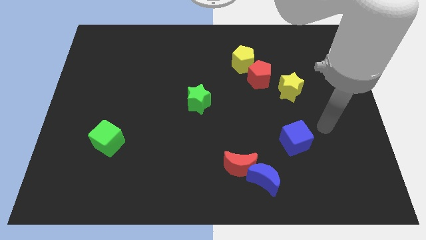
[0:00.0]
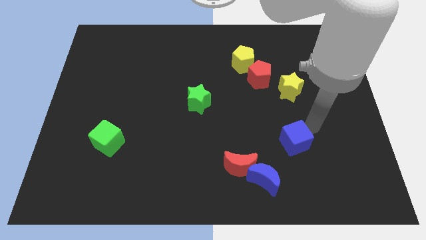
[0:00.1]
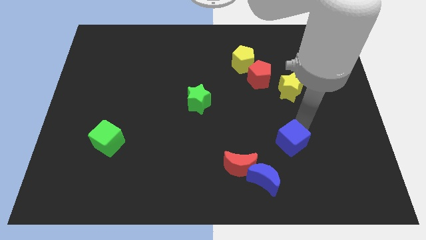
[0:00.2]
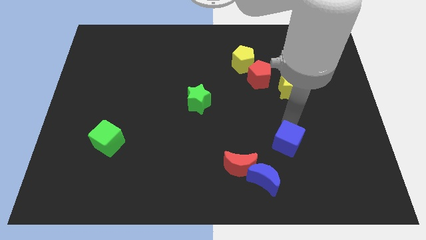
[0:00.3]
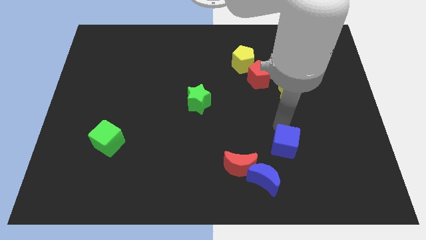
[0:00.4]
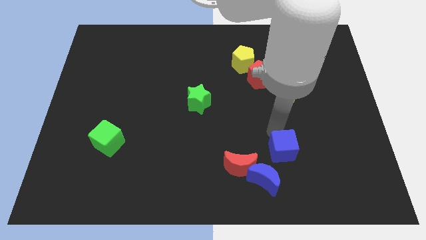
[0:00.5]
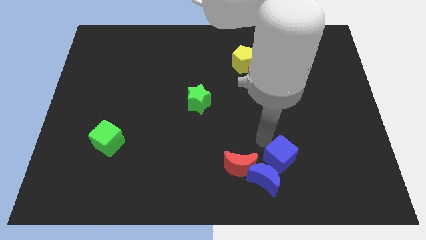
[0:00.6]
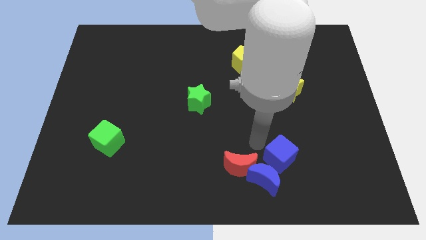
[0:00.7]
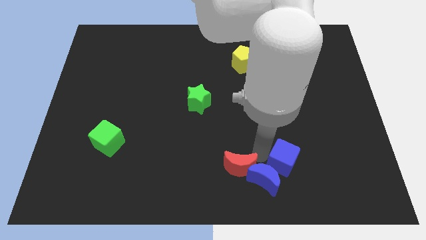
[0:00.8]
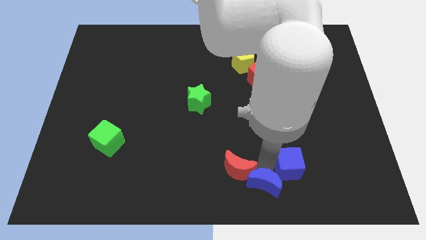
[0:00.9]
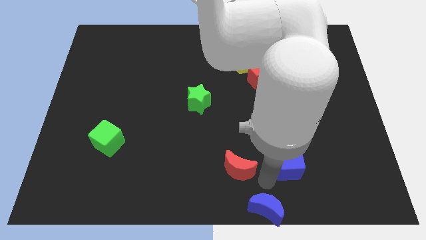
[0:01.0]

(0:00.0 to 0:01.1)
separate the red moon from the blue moon

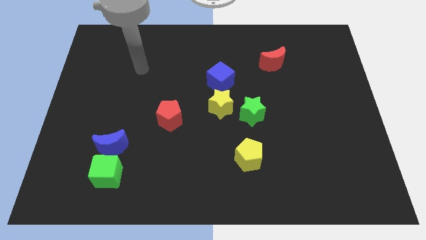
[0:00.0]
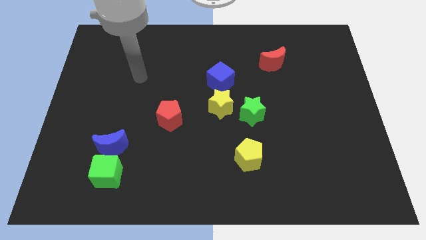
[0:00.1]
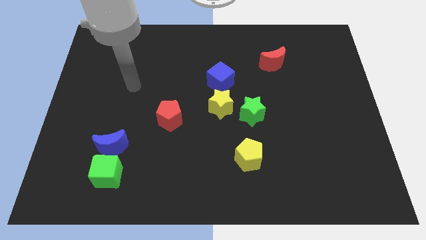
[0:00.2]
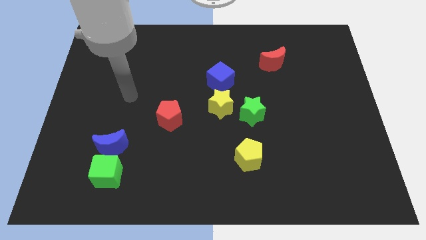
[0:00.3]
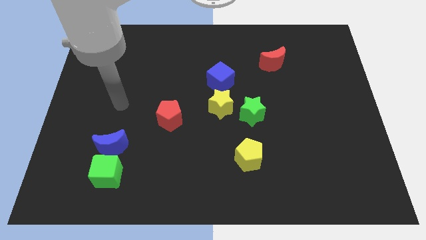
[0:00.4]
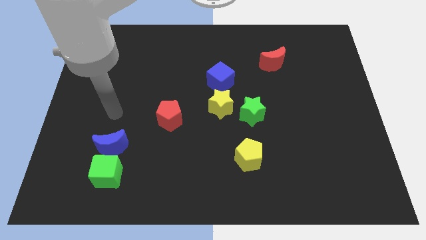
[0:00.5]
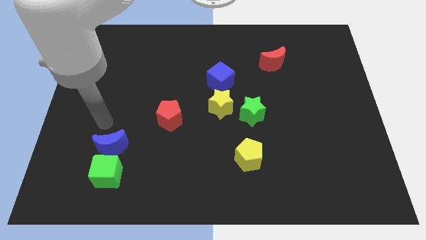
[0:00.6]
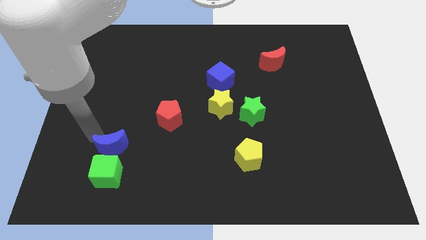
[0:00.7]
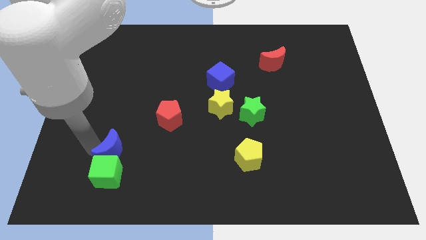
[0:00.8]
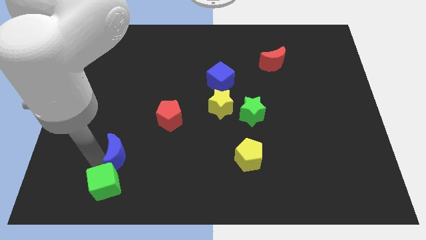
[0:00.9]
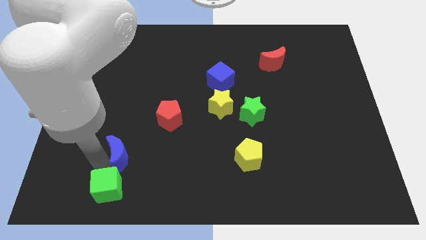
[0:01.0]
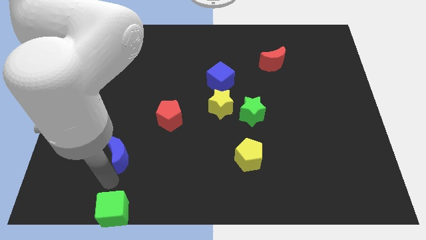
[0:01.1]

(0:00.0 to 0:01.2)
move the blue moon away from the green cube

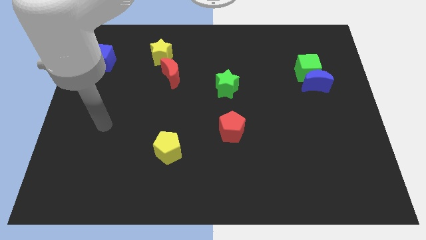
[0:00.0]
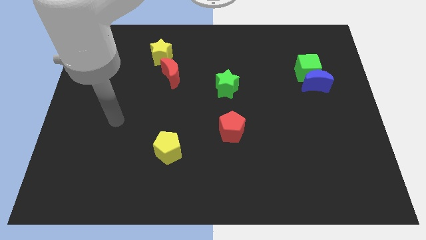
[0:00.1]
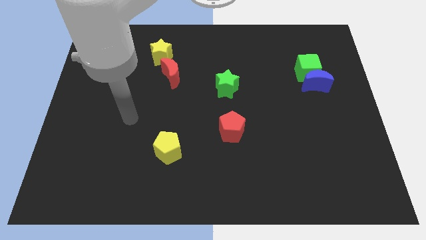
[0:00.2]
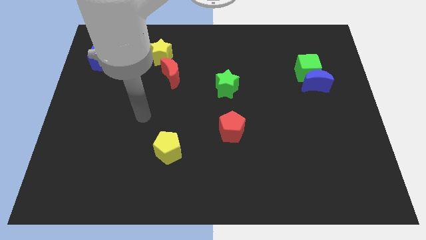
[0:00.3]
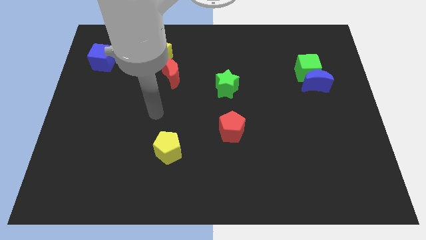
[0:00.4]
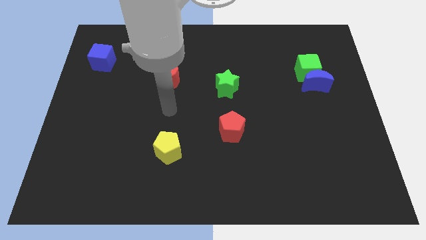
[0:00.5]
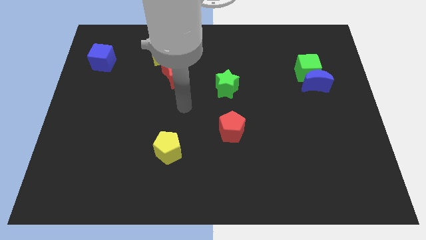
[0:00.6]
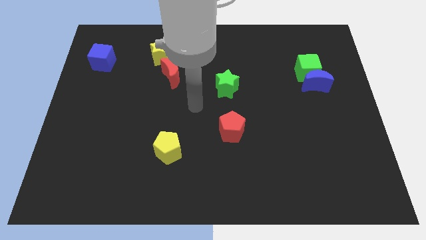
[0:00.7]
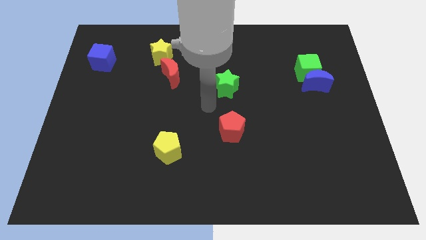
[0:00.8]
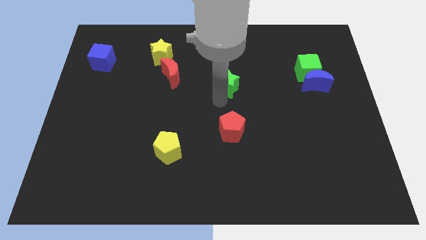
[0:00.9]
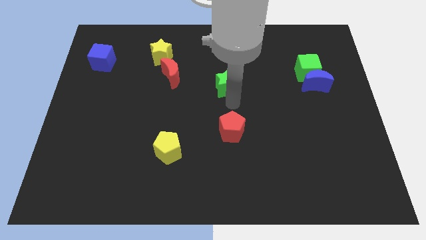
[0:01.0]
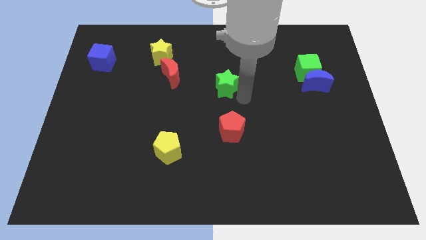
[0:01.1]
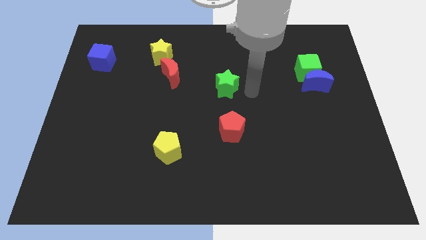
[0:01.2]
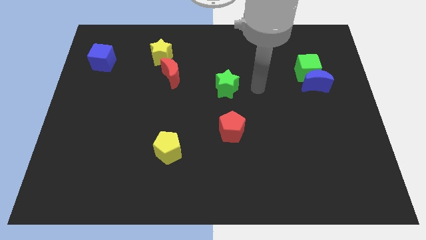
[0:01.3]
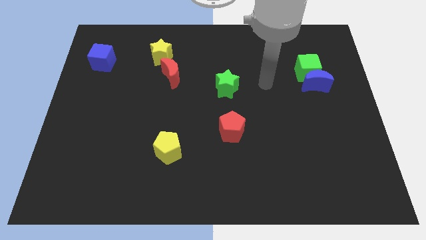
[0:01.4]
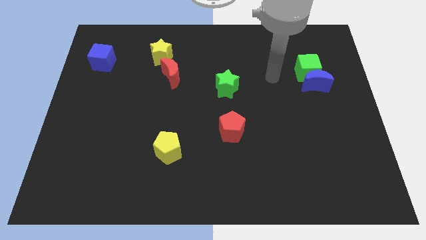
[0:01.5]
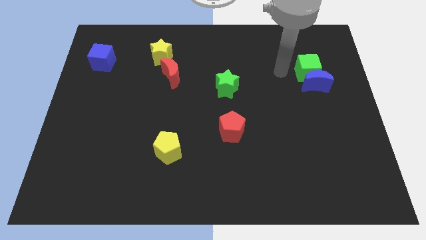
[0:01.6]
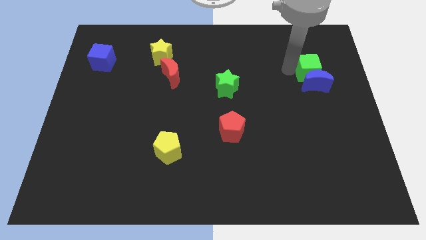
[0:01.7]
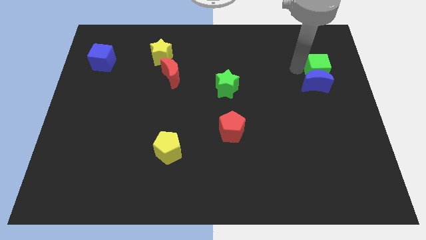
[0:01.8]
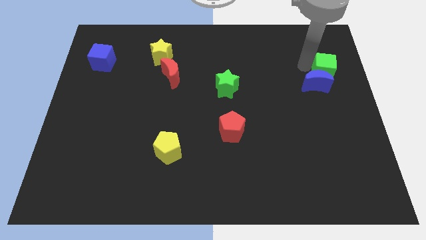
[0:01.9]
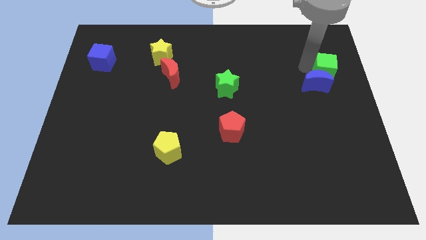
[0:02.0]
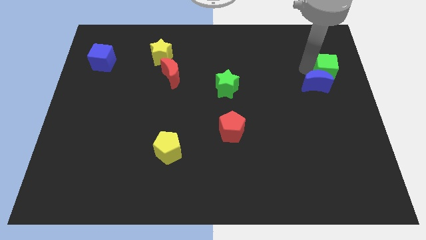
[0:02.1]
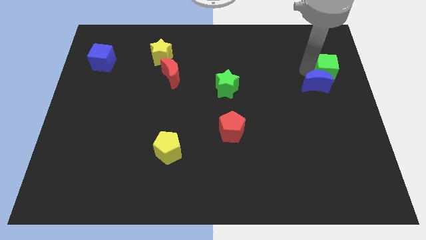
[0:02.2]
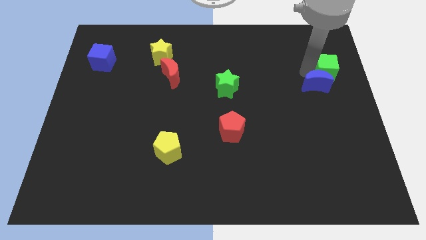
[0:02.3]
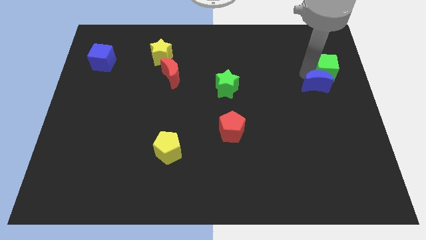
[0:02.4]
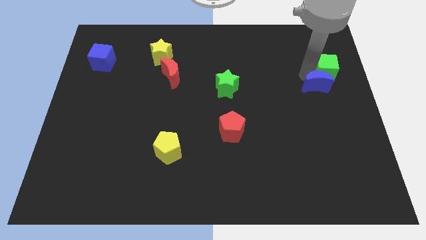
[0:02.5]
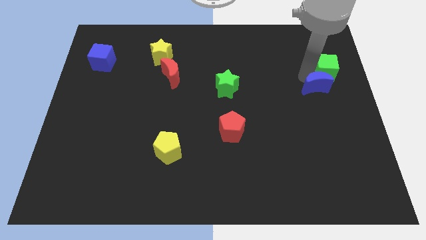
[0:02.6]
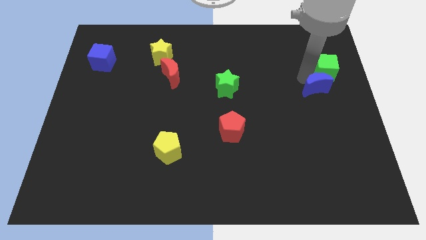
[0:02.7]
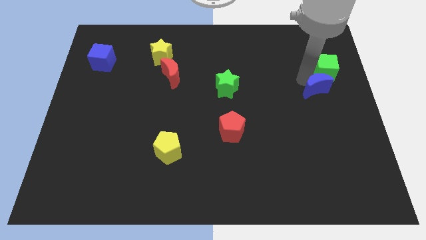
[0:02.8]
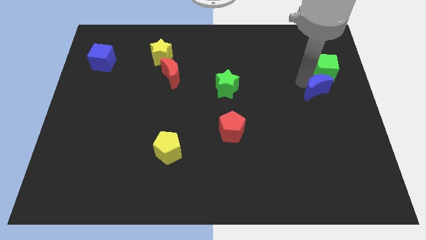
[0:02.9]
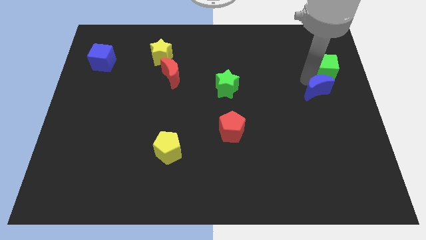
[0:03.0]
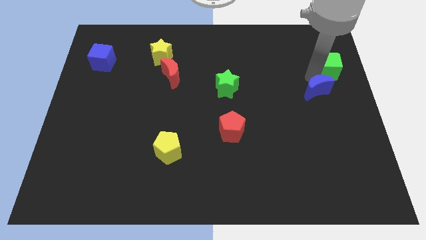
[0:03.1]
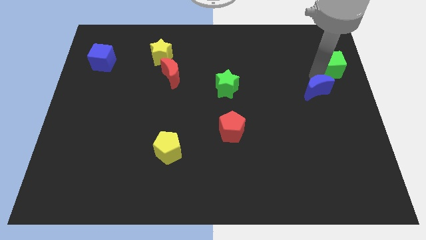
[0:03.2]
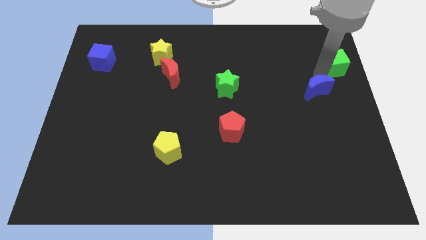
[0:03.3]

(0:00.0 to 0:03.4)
separate the blue moon from the green cube

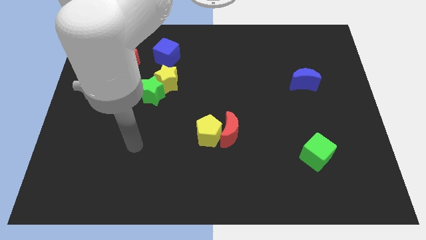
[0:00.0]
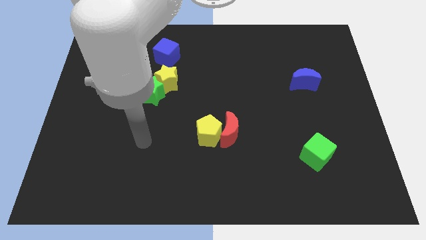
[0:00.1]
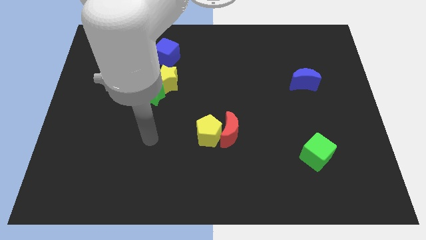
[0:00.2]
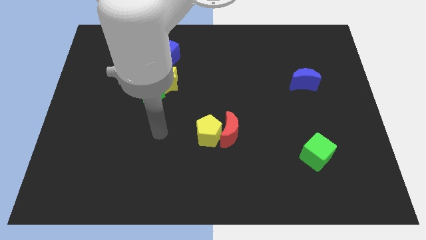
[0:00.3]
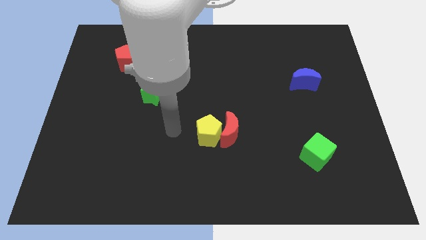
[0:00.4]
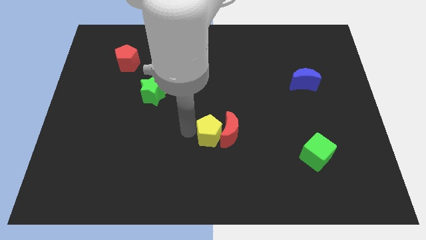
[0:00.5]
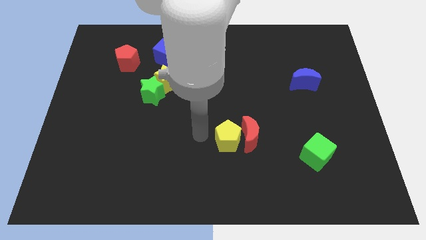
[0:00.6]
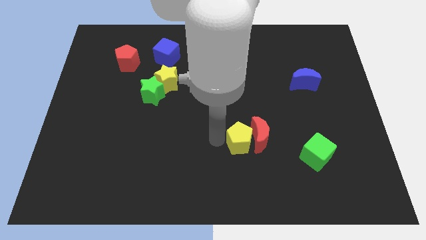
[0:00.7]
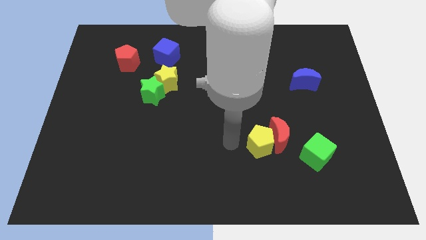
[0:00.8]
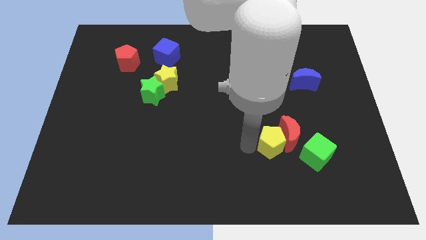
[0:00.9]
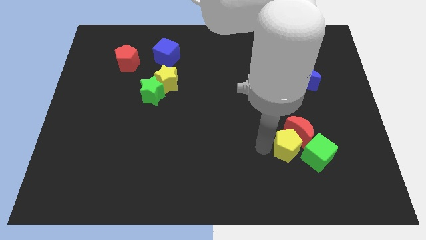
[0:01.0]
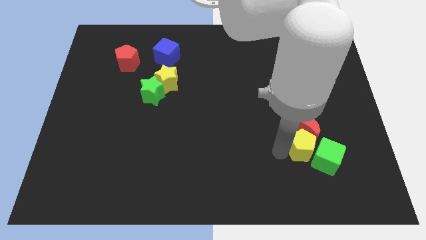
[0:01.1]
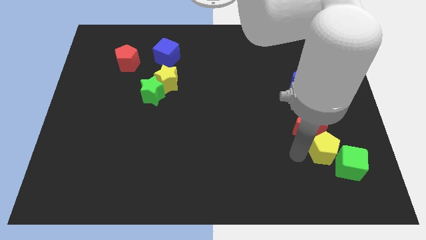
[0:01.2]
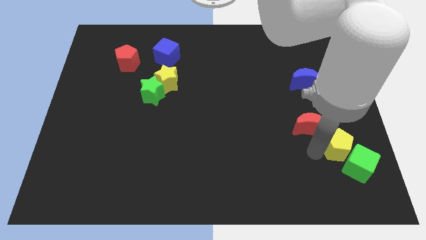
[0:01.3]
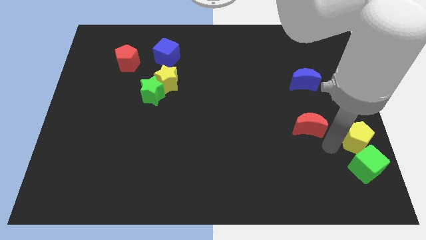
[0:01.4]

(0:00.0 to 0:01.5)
separate the red moon from the yellow pentagon

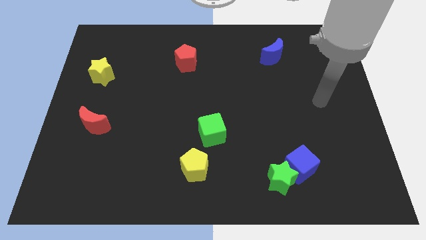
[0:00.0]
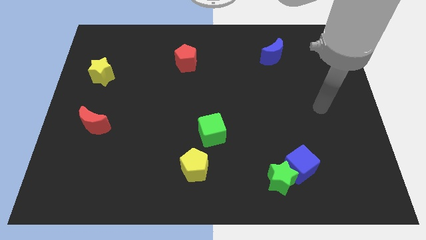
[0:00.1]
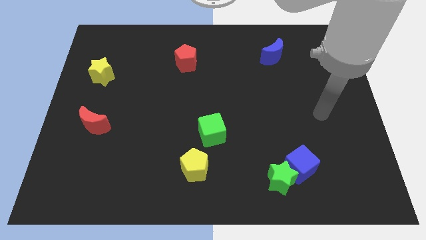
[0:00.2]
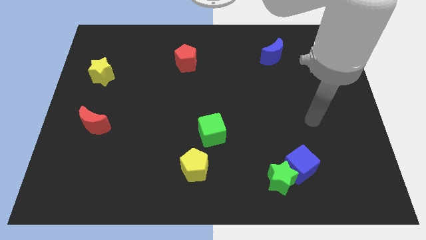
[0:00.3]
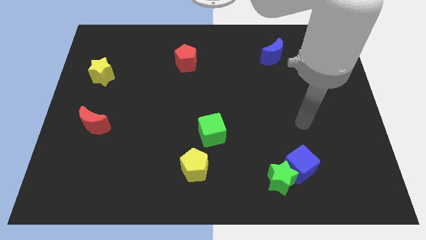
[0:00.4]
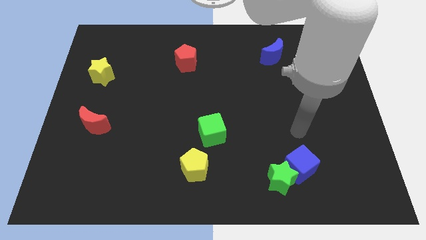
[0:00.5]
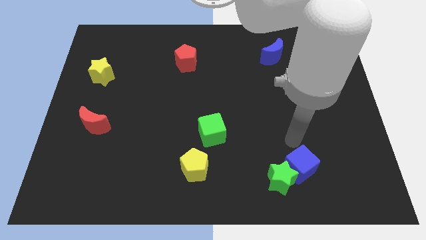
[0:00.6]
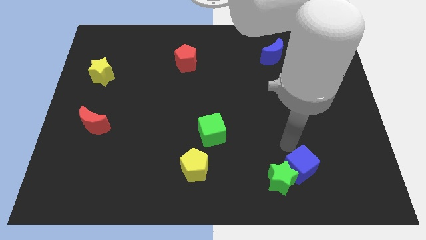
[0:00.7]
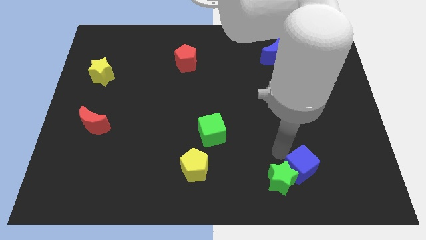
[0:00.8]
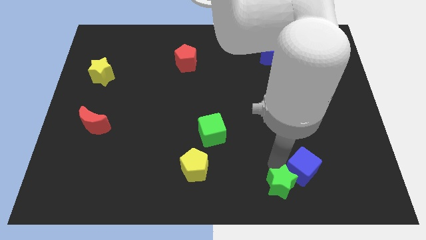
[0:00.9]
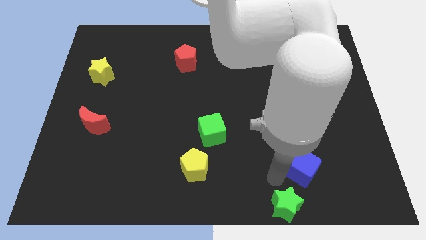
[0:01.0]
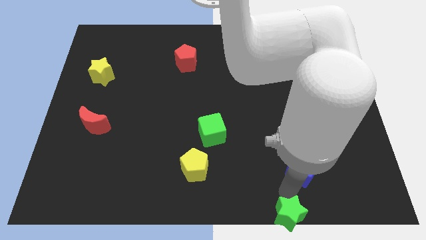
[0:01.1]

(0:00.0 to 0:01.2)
separate the blue cube from the green star

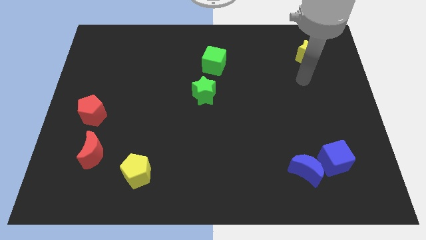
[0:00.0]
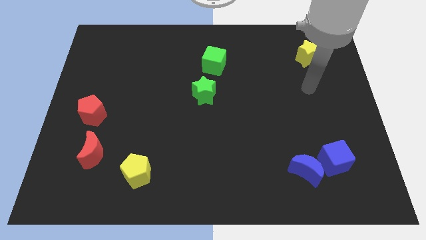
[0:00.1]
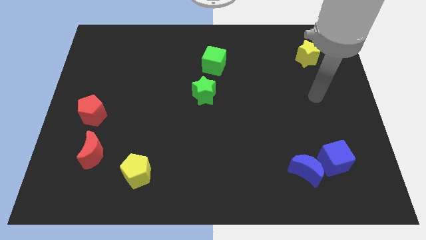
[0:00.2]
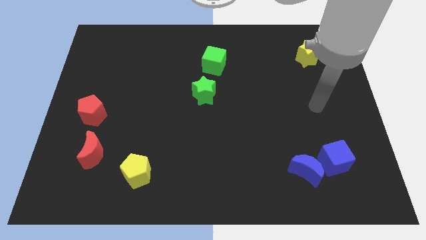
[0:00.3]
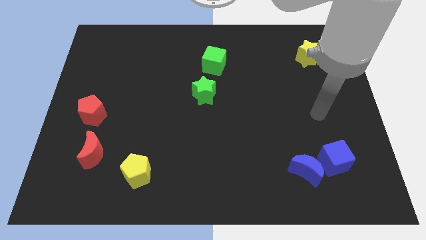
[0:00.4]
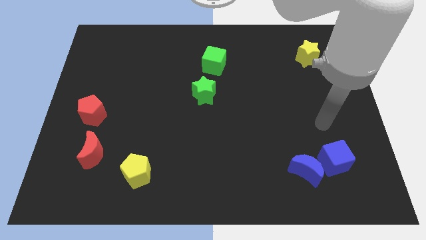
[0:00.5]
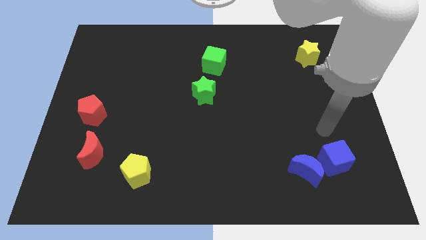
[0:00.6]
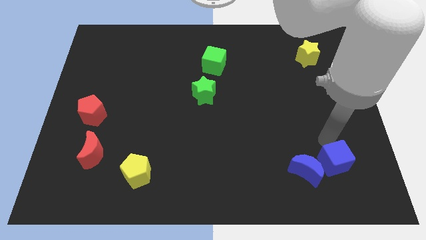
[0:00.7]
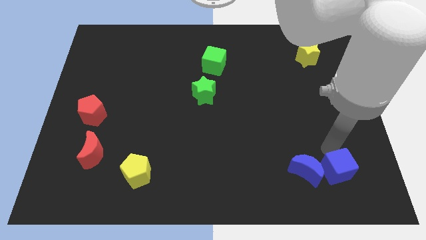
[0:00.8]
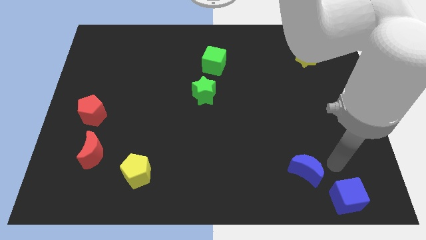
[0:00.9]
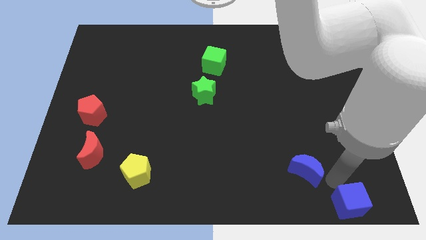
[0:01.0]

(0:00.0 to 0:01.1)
move the blue moon away from the blue cube
